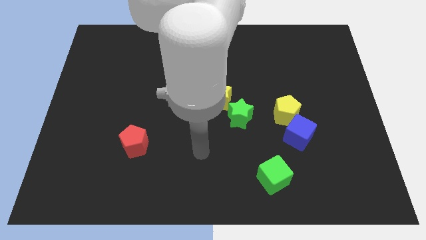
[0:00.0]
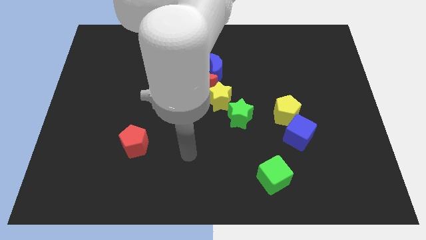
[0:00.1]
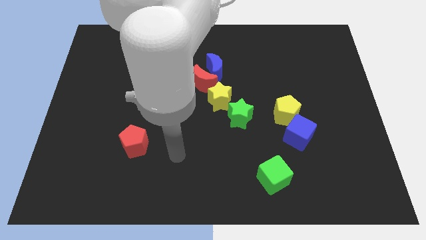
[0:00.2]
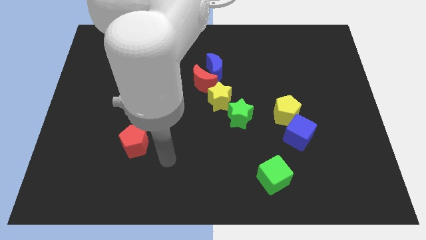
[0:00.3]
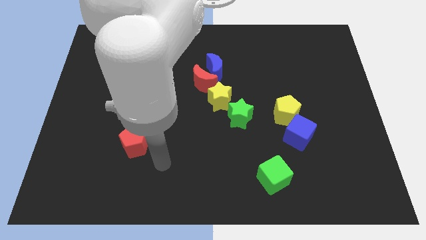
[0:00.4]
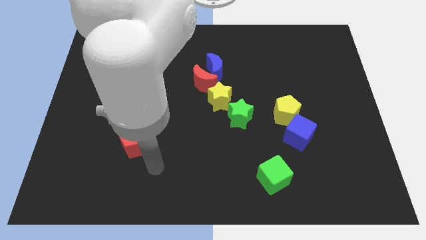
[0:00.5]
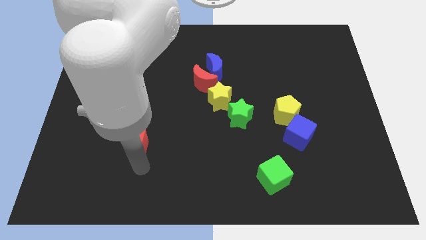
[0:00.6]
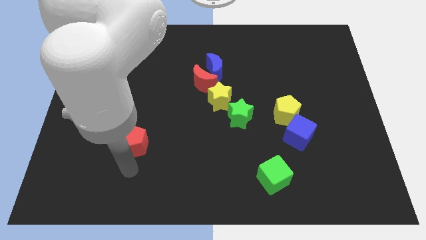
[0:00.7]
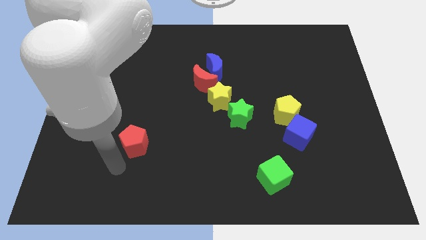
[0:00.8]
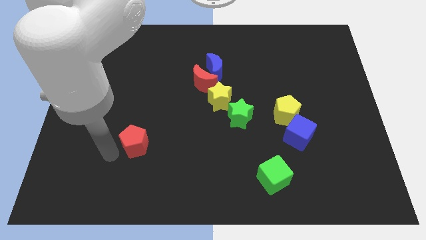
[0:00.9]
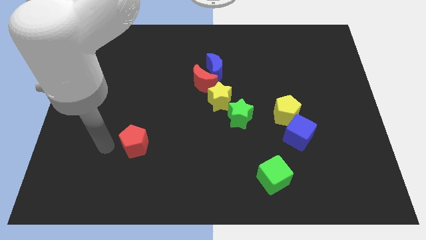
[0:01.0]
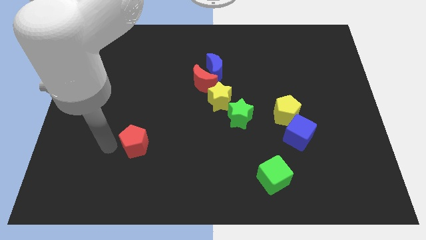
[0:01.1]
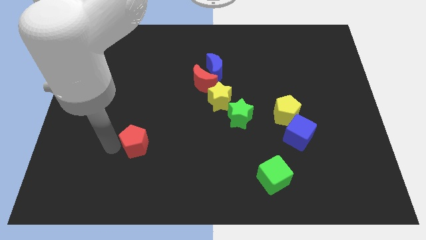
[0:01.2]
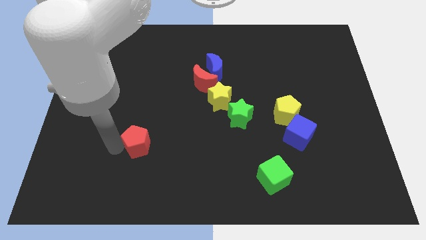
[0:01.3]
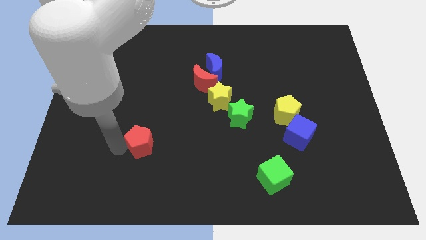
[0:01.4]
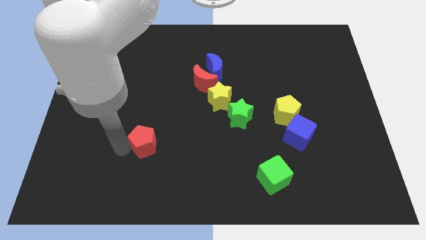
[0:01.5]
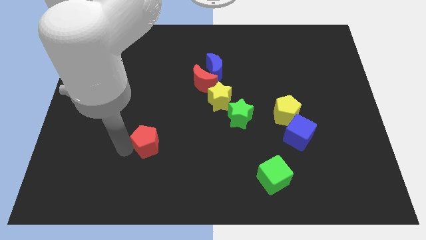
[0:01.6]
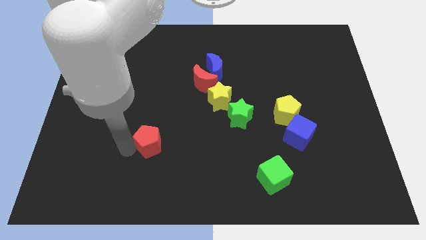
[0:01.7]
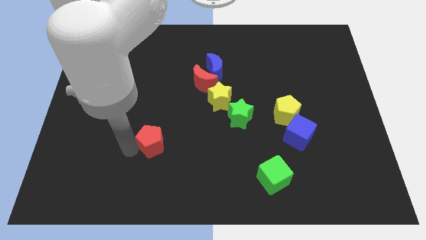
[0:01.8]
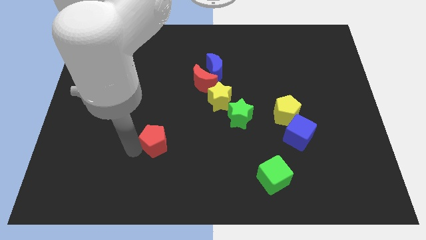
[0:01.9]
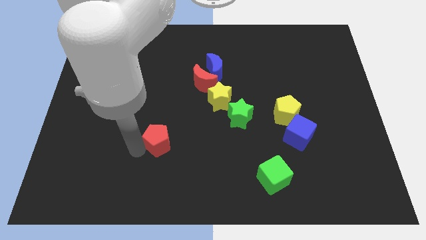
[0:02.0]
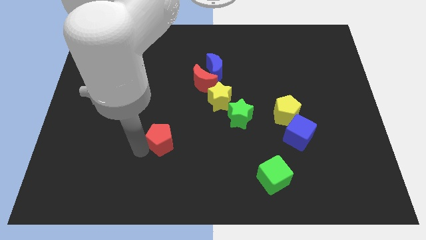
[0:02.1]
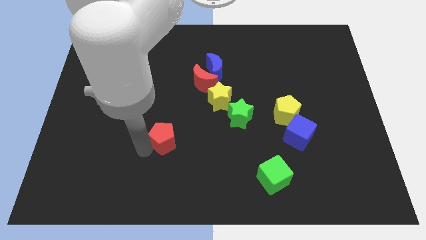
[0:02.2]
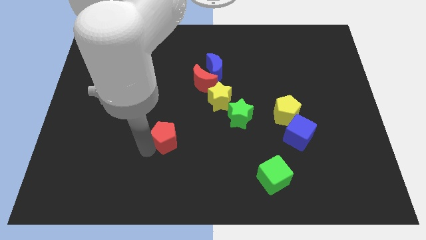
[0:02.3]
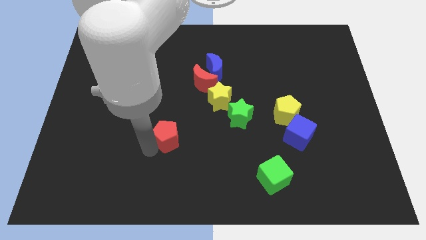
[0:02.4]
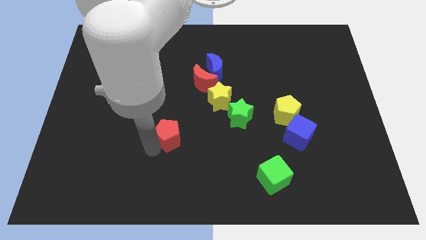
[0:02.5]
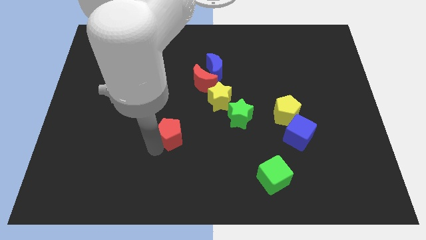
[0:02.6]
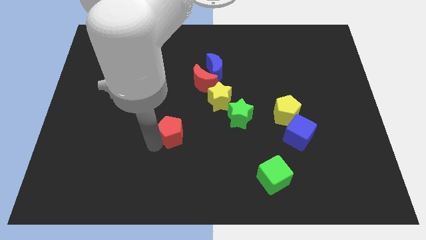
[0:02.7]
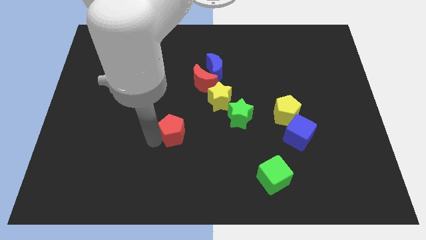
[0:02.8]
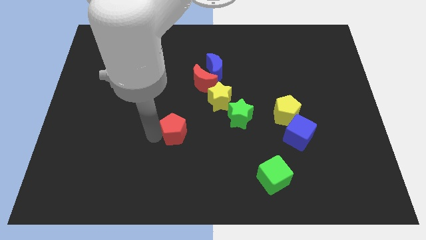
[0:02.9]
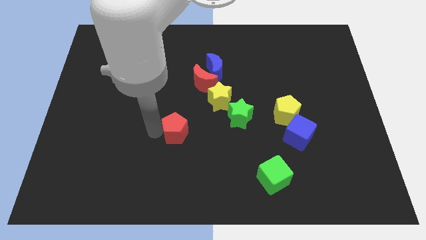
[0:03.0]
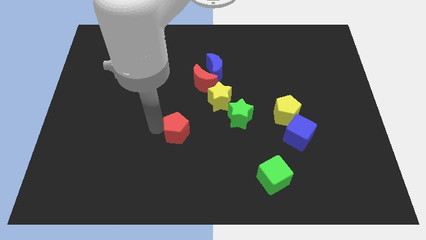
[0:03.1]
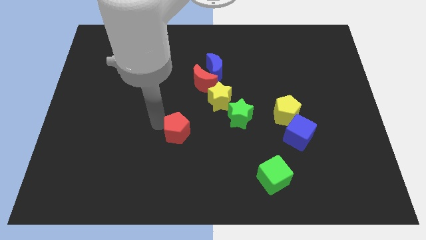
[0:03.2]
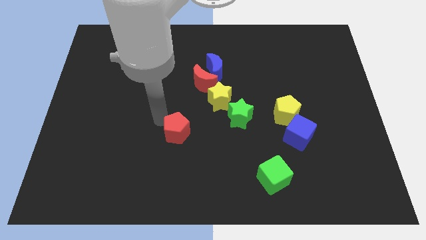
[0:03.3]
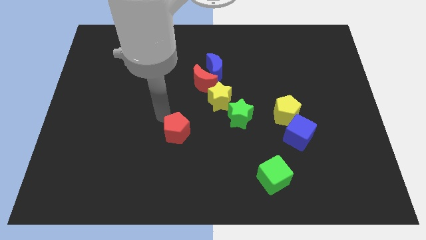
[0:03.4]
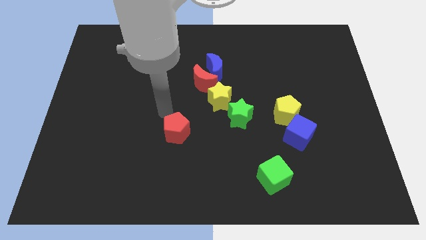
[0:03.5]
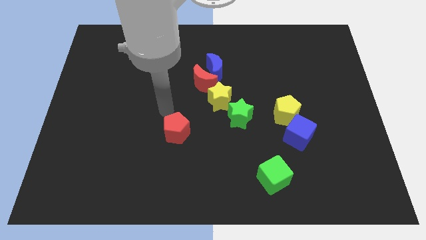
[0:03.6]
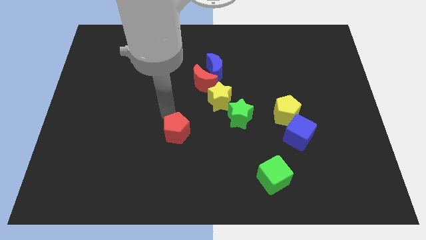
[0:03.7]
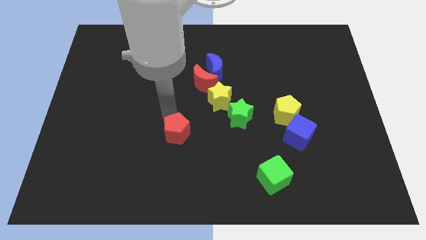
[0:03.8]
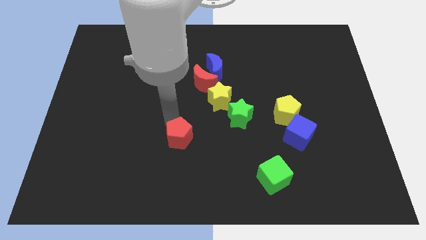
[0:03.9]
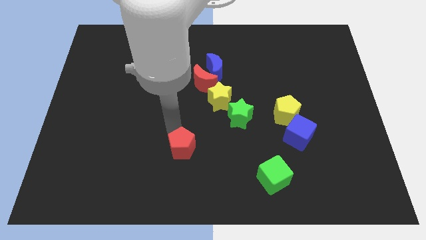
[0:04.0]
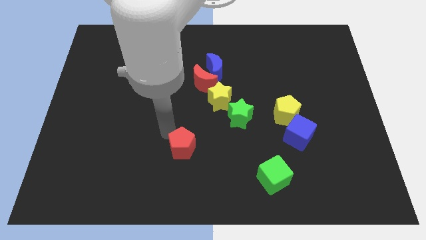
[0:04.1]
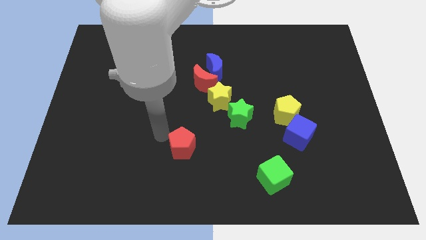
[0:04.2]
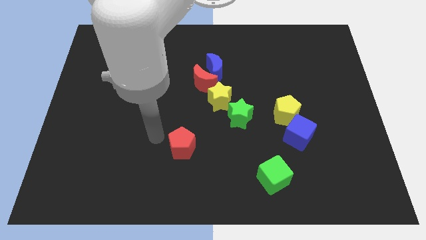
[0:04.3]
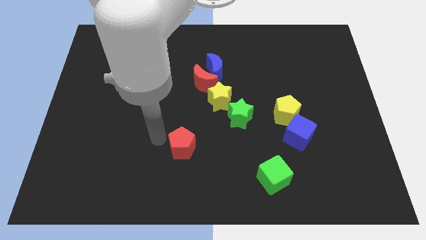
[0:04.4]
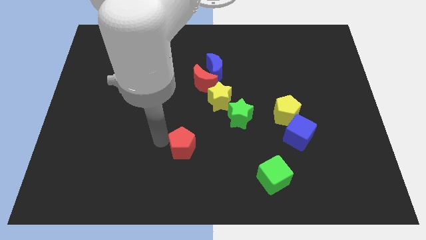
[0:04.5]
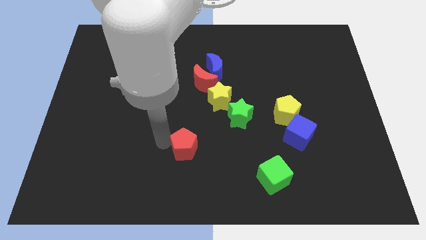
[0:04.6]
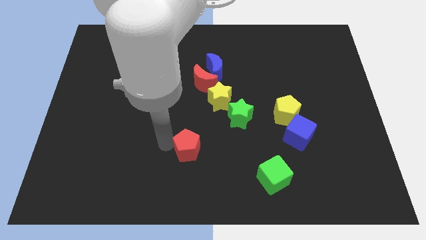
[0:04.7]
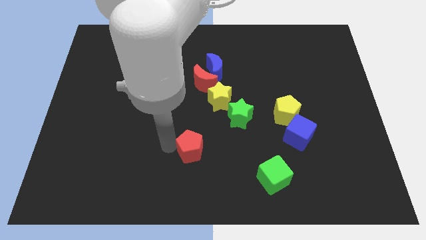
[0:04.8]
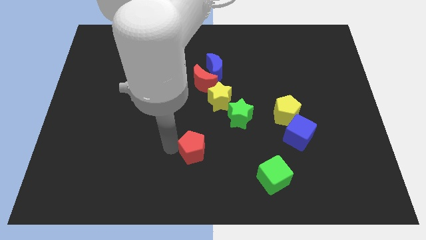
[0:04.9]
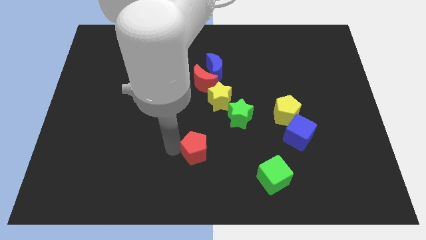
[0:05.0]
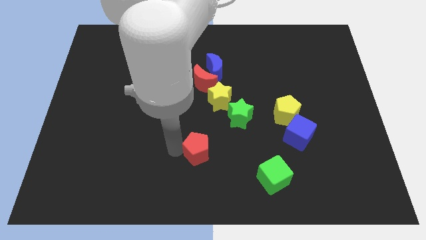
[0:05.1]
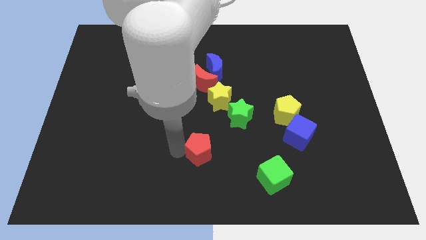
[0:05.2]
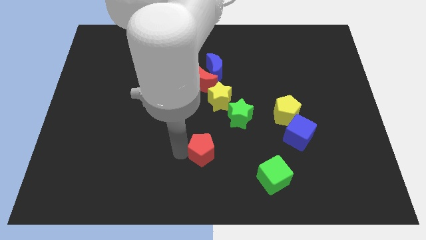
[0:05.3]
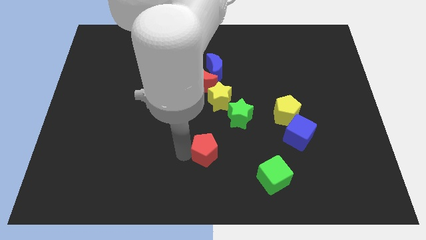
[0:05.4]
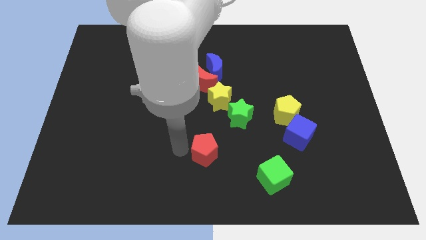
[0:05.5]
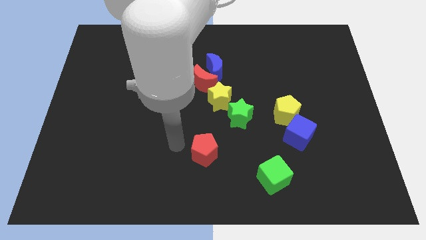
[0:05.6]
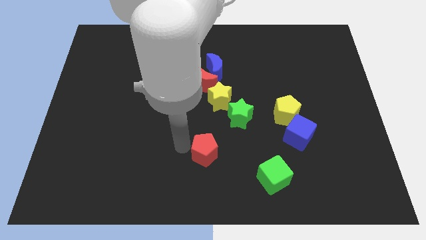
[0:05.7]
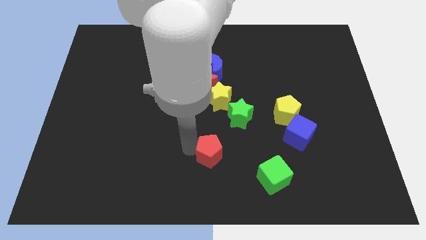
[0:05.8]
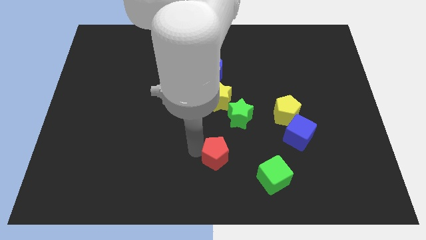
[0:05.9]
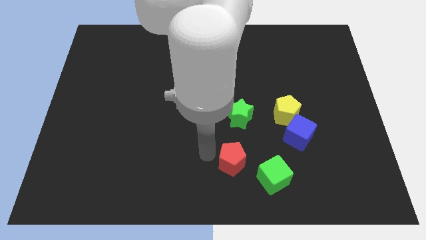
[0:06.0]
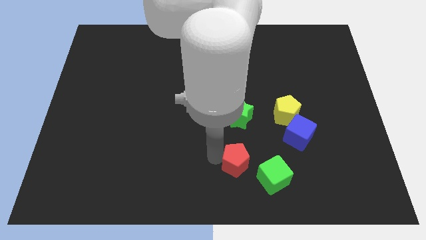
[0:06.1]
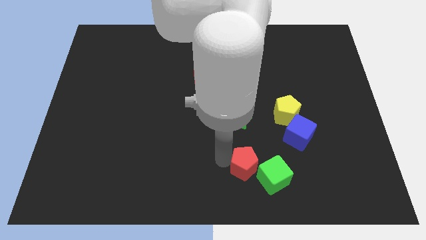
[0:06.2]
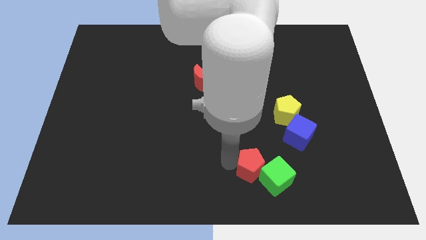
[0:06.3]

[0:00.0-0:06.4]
push the red pentagon close to the green cube
